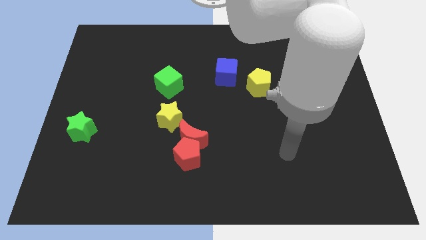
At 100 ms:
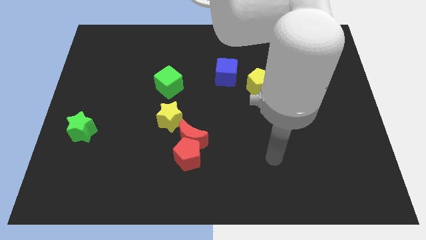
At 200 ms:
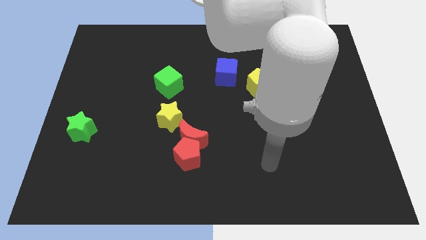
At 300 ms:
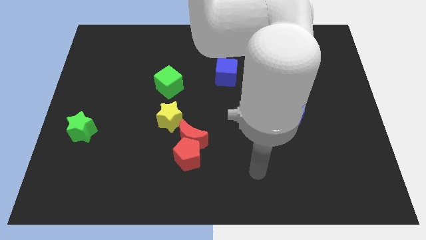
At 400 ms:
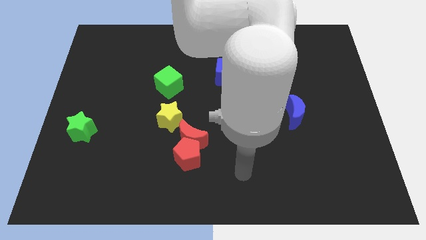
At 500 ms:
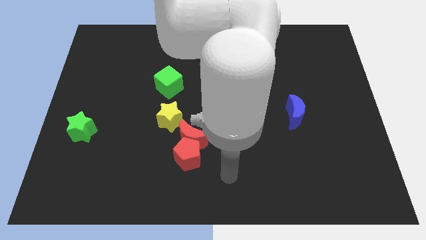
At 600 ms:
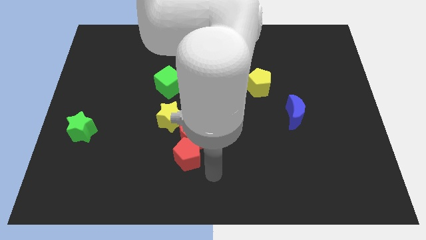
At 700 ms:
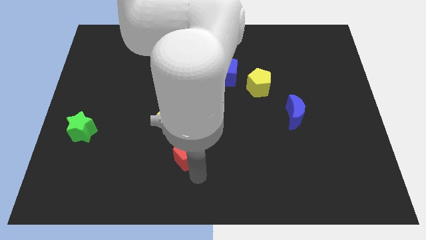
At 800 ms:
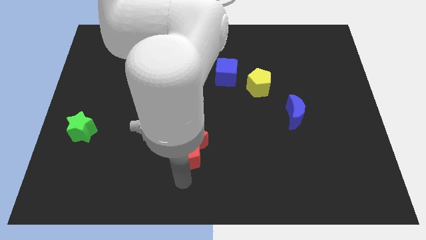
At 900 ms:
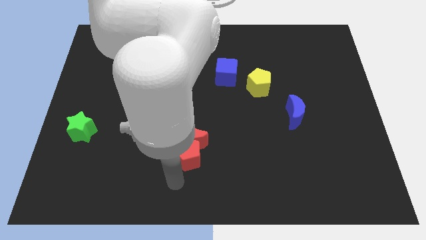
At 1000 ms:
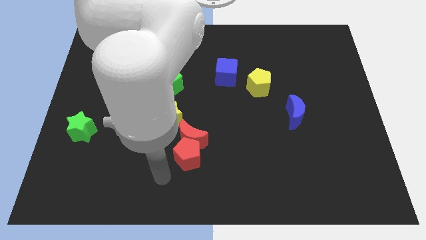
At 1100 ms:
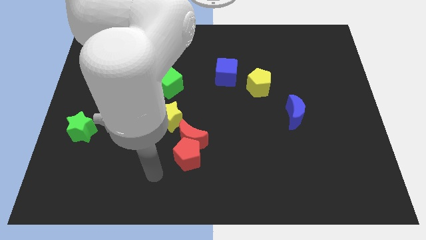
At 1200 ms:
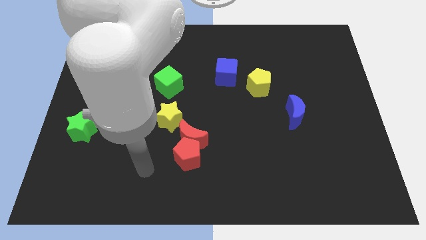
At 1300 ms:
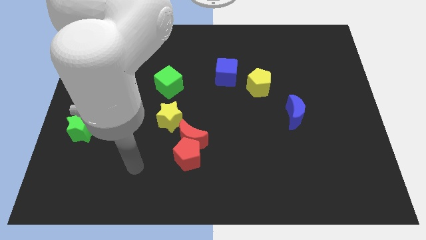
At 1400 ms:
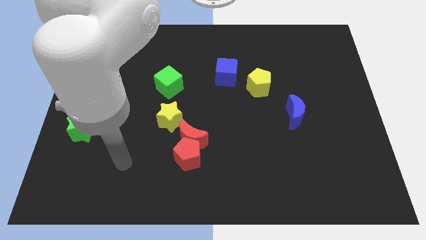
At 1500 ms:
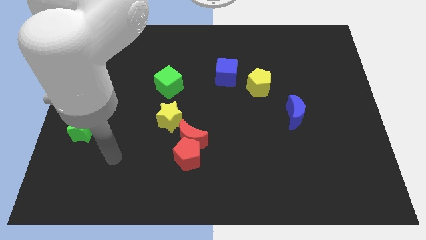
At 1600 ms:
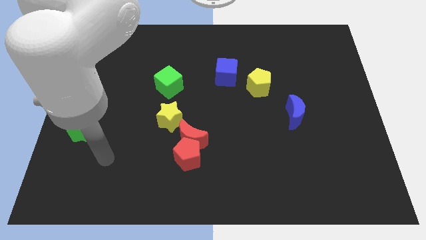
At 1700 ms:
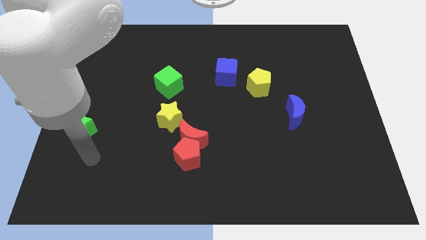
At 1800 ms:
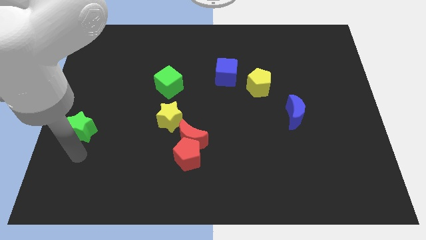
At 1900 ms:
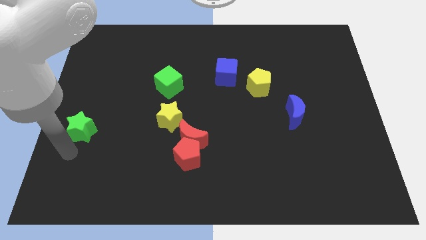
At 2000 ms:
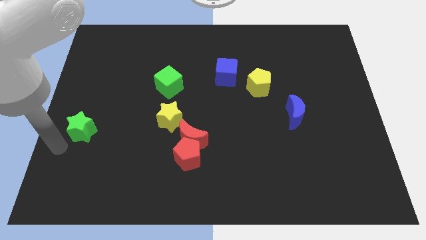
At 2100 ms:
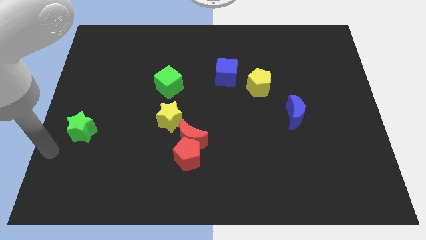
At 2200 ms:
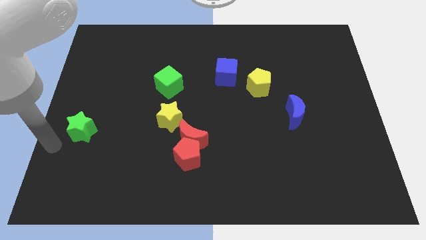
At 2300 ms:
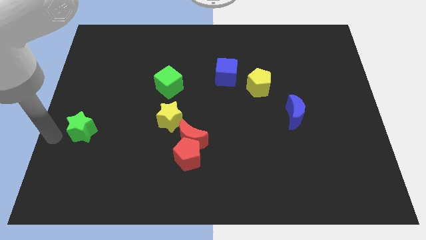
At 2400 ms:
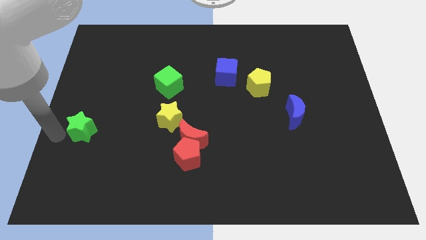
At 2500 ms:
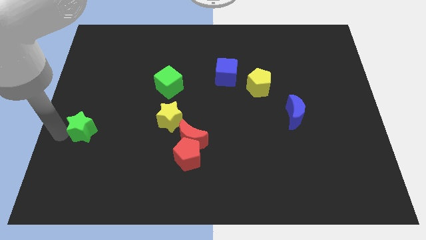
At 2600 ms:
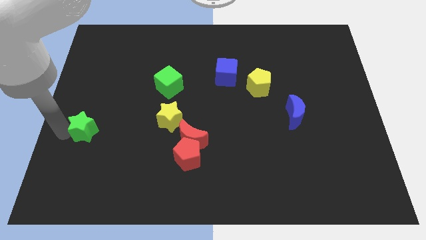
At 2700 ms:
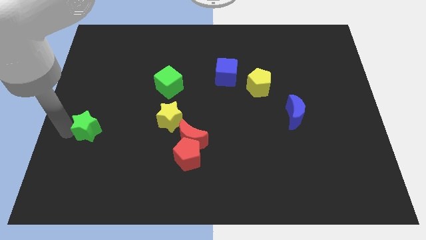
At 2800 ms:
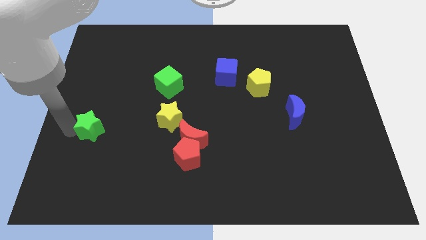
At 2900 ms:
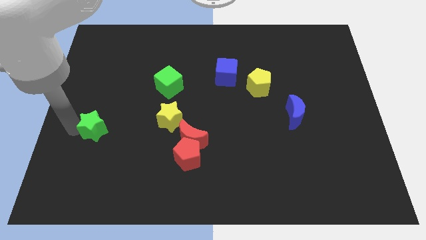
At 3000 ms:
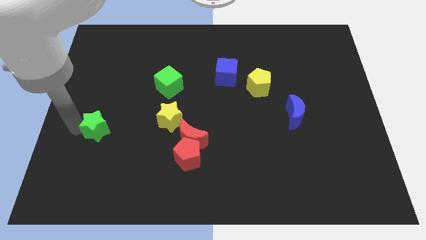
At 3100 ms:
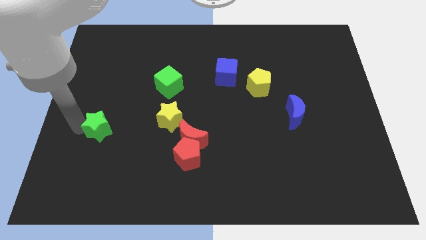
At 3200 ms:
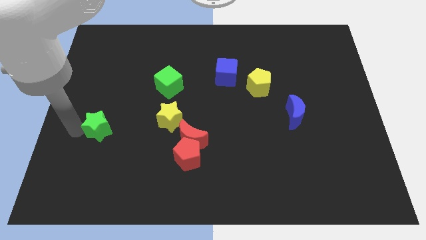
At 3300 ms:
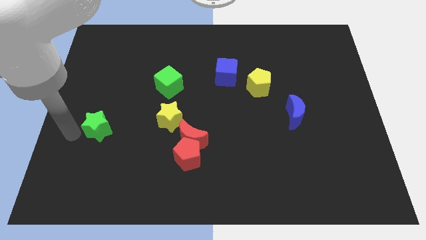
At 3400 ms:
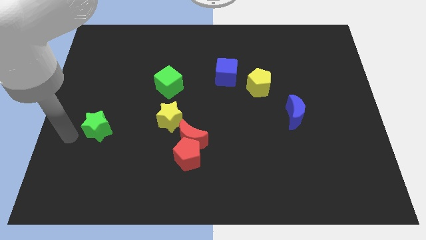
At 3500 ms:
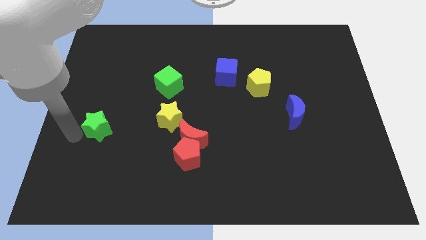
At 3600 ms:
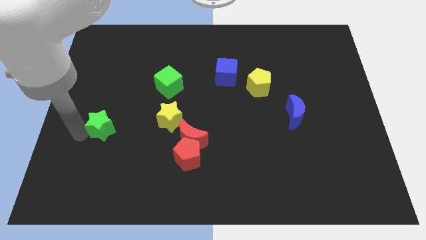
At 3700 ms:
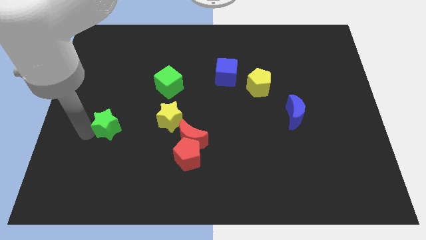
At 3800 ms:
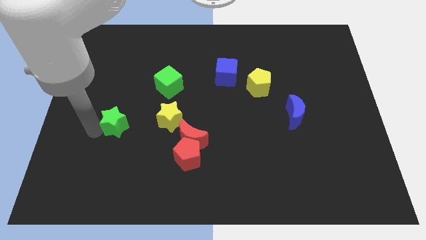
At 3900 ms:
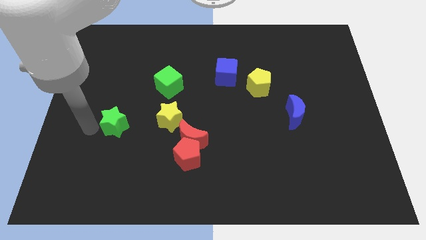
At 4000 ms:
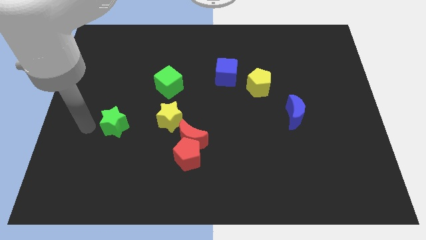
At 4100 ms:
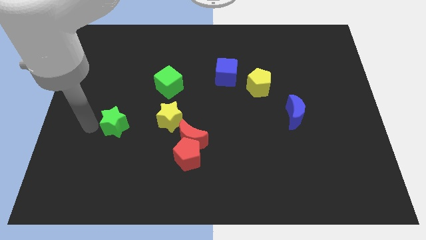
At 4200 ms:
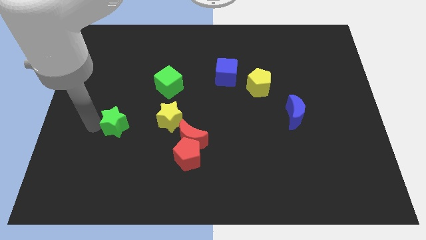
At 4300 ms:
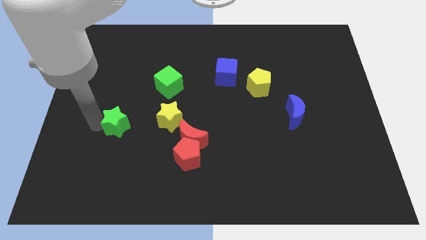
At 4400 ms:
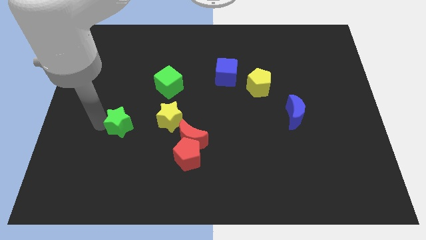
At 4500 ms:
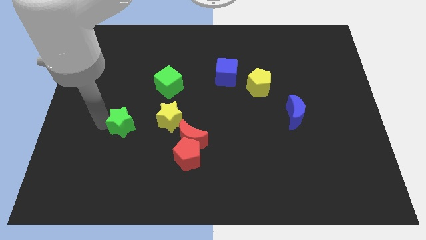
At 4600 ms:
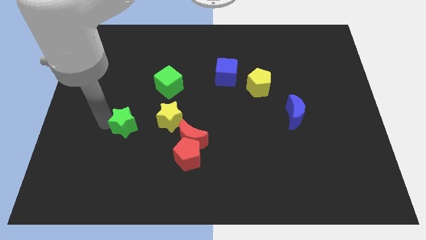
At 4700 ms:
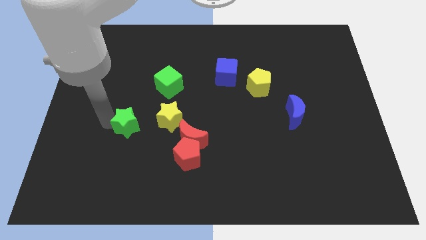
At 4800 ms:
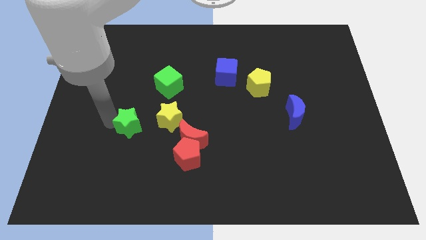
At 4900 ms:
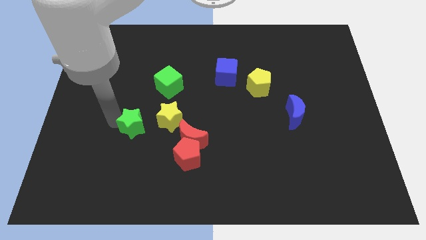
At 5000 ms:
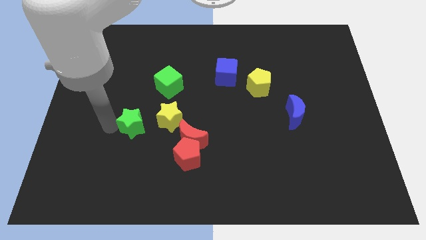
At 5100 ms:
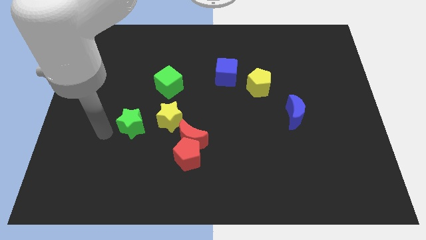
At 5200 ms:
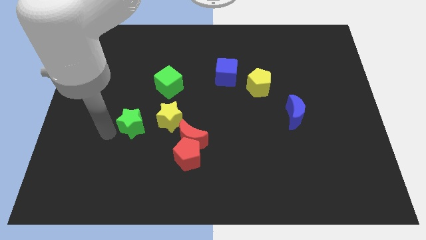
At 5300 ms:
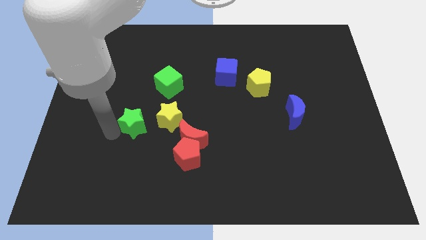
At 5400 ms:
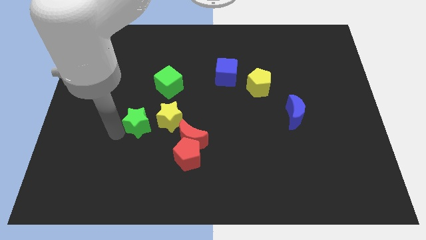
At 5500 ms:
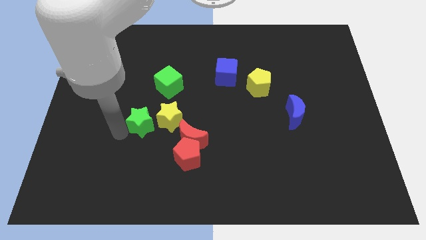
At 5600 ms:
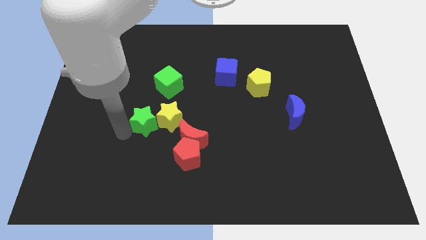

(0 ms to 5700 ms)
push the green star towards the yellow star

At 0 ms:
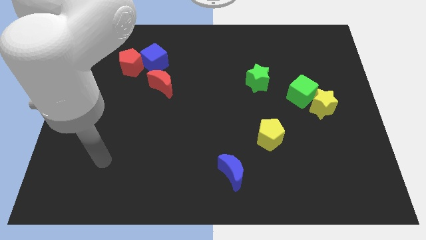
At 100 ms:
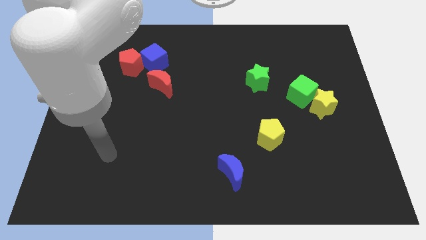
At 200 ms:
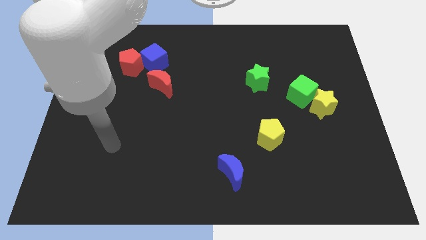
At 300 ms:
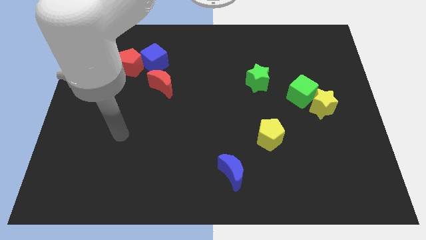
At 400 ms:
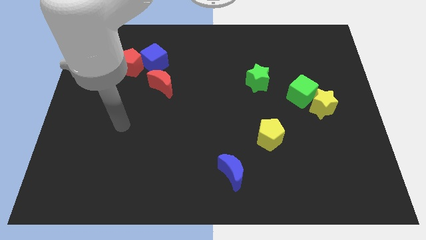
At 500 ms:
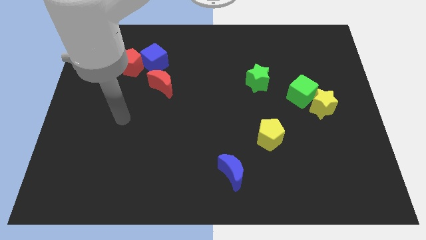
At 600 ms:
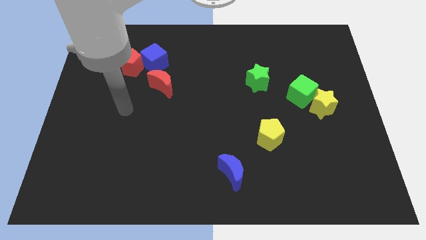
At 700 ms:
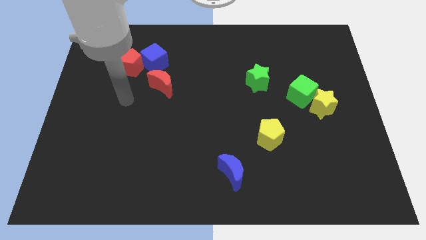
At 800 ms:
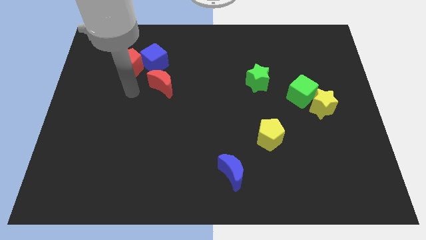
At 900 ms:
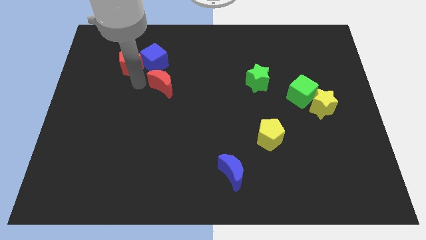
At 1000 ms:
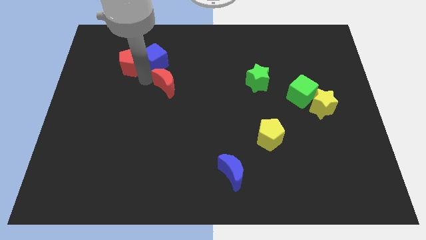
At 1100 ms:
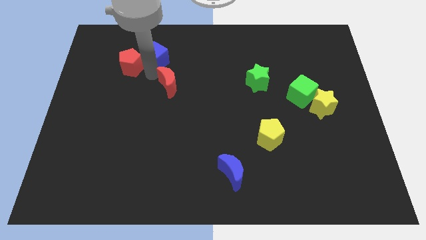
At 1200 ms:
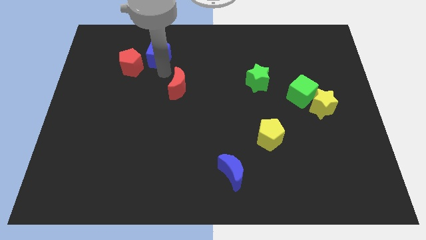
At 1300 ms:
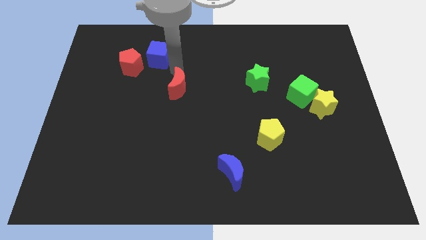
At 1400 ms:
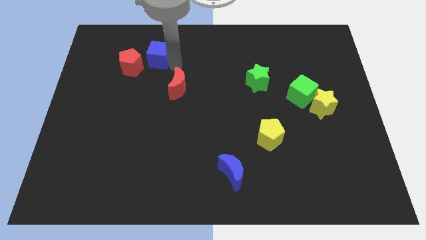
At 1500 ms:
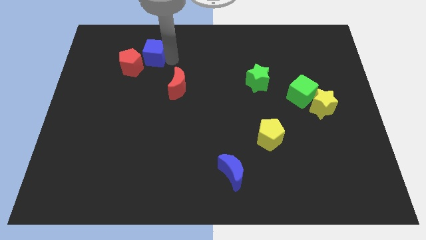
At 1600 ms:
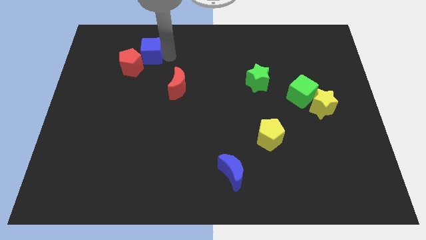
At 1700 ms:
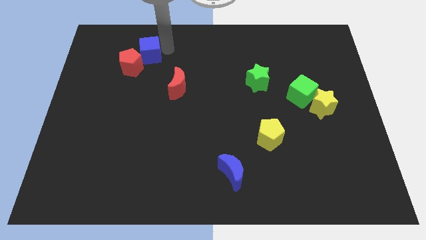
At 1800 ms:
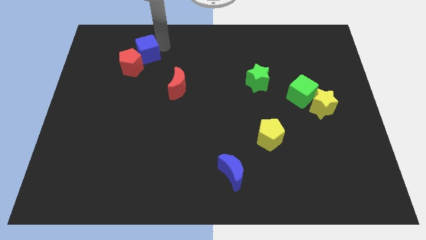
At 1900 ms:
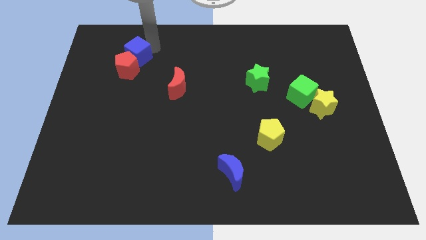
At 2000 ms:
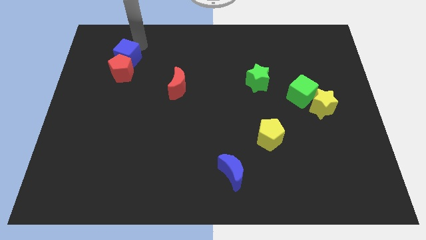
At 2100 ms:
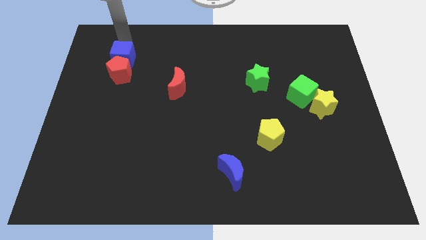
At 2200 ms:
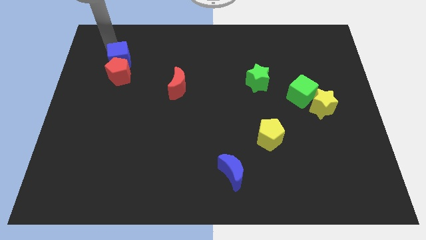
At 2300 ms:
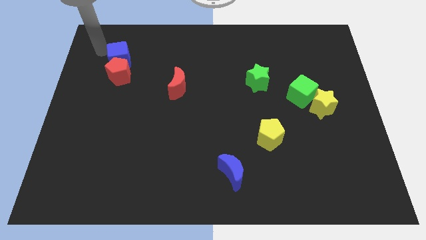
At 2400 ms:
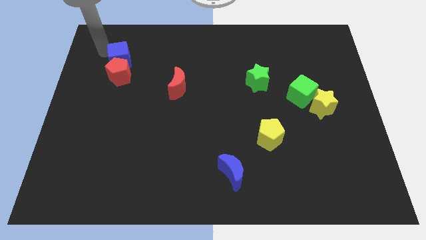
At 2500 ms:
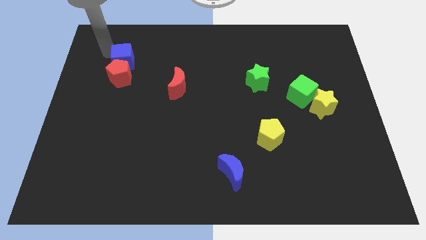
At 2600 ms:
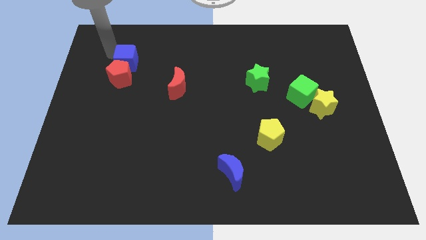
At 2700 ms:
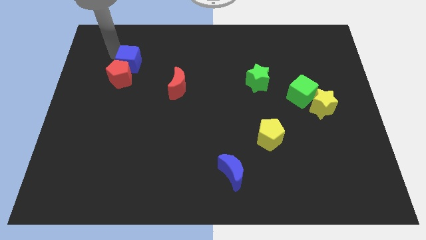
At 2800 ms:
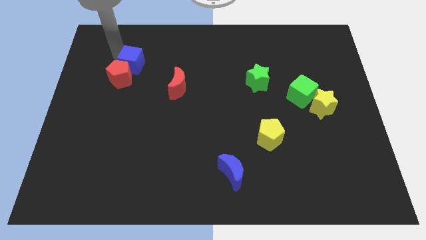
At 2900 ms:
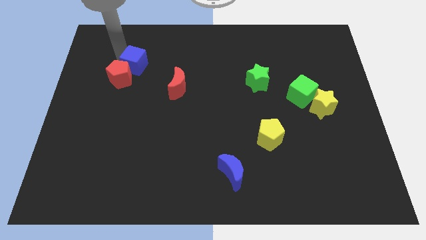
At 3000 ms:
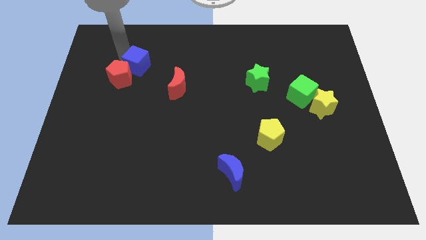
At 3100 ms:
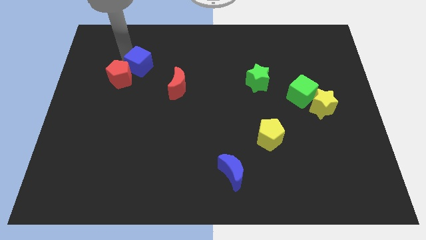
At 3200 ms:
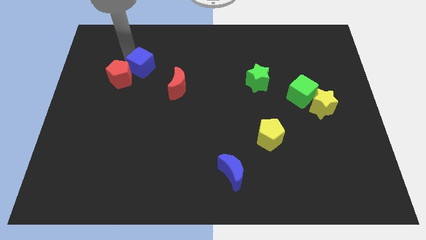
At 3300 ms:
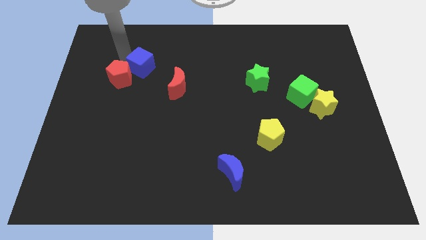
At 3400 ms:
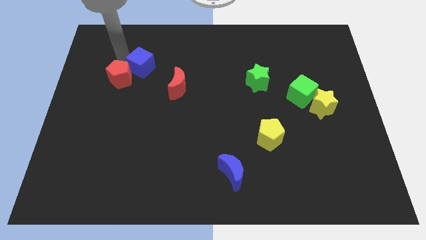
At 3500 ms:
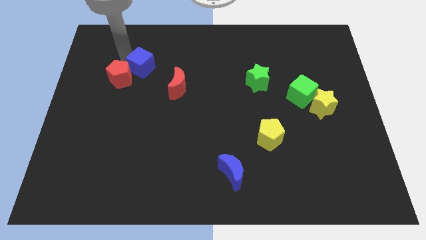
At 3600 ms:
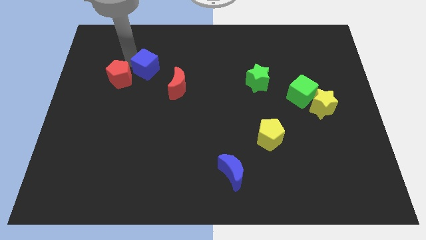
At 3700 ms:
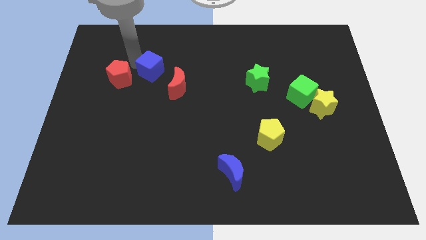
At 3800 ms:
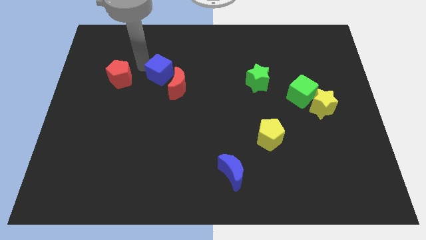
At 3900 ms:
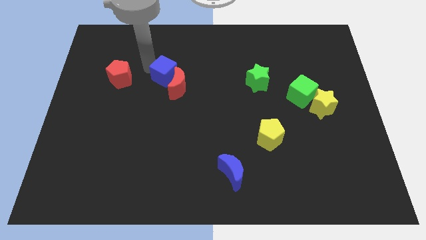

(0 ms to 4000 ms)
slide the blue cube towards the red moon
